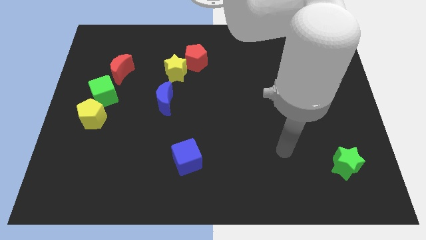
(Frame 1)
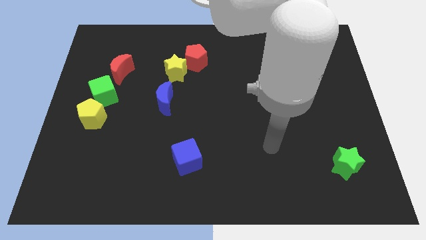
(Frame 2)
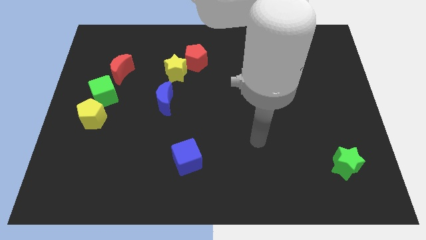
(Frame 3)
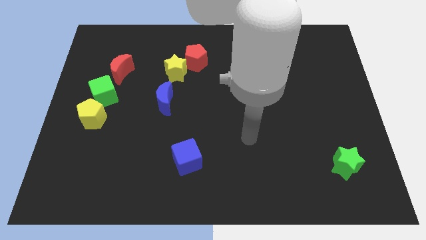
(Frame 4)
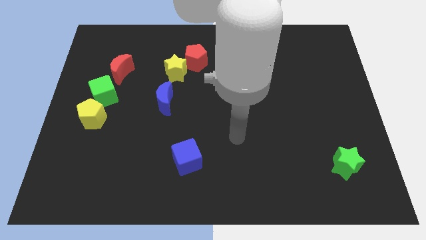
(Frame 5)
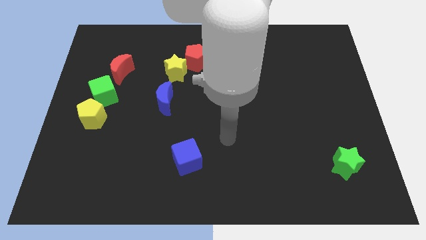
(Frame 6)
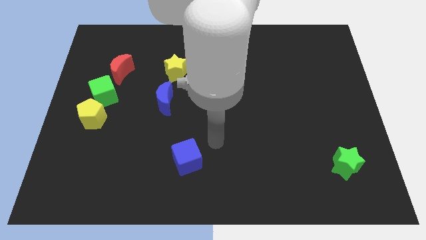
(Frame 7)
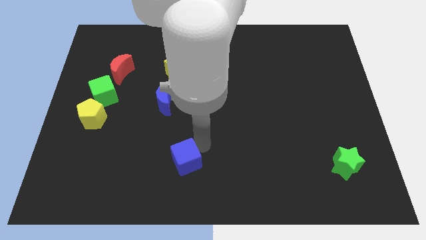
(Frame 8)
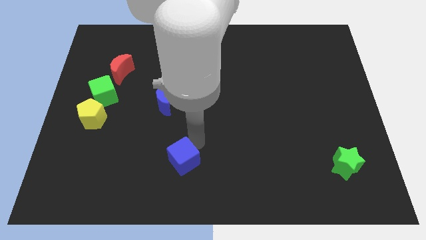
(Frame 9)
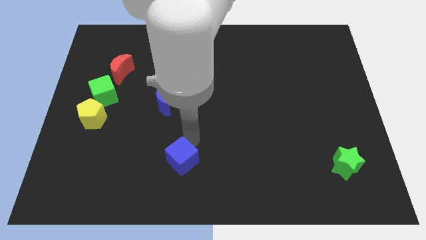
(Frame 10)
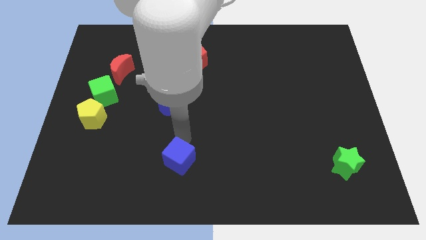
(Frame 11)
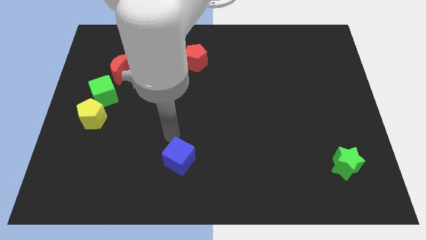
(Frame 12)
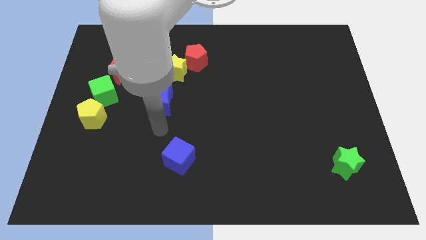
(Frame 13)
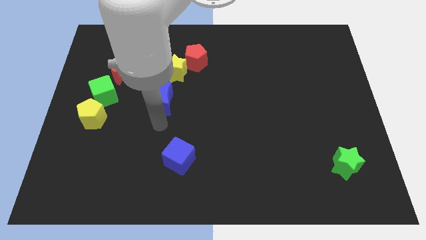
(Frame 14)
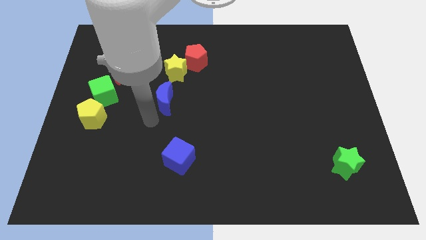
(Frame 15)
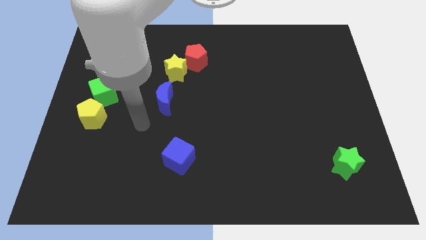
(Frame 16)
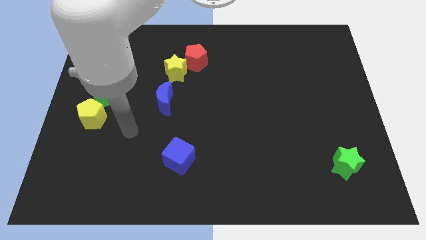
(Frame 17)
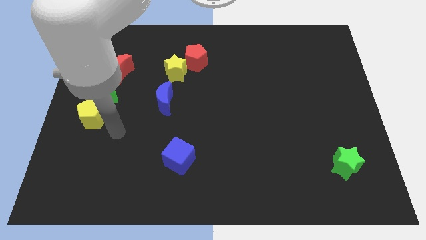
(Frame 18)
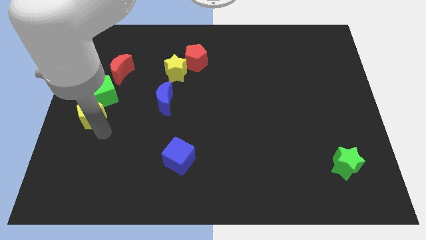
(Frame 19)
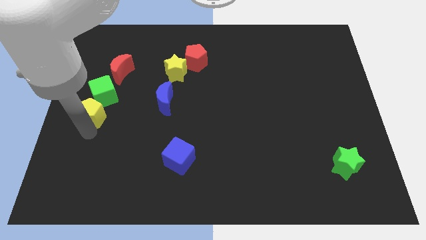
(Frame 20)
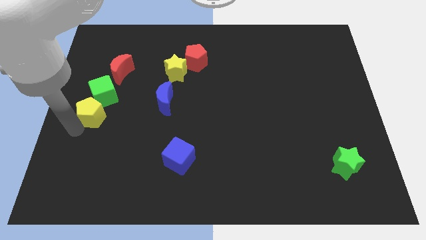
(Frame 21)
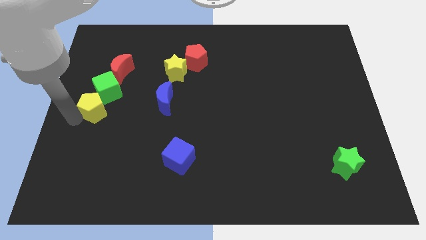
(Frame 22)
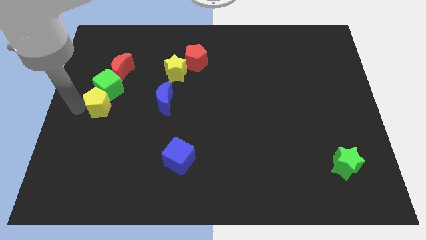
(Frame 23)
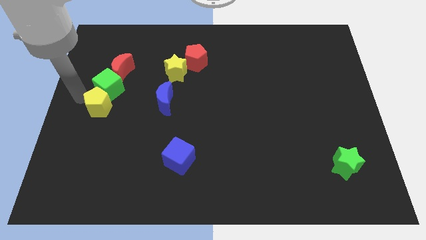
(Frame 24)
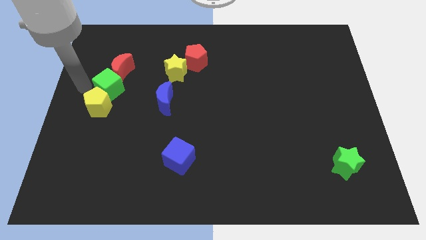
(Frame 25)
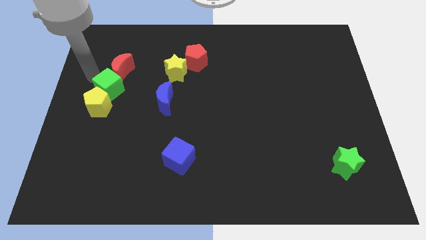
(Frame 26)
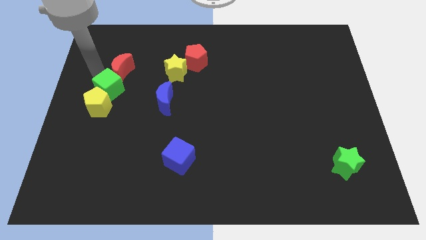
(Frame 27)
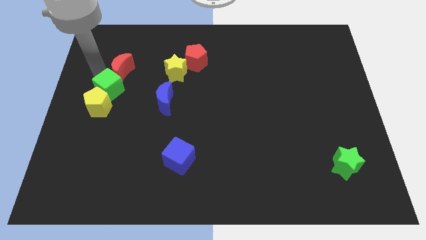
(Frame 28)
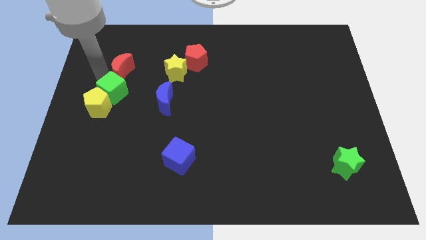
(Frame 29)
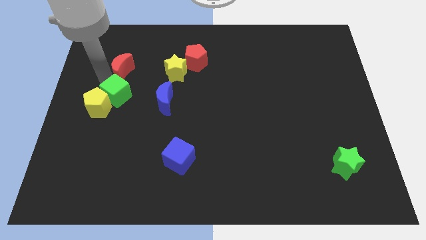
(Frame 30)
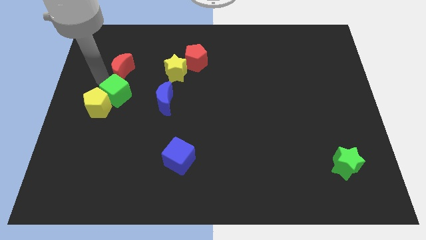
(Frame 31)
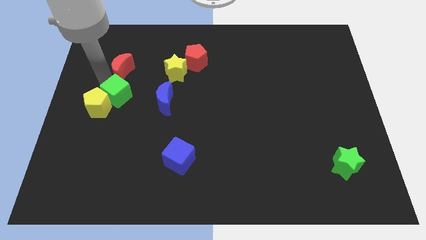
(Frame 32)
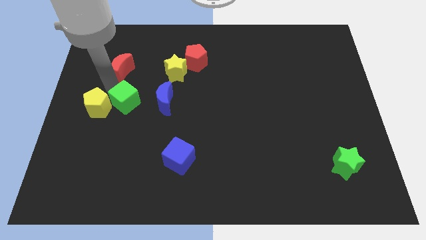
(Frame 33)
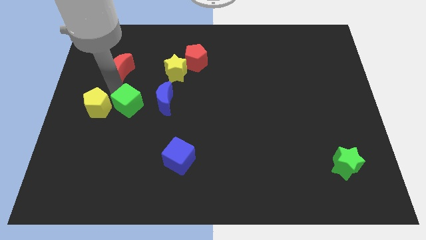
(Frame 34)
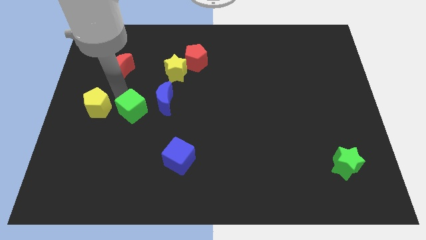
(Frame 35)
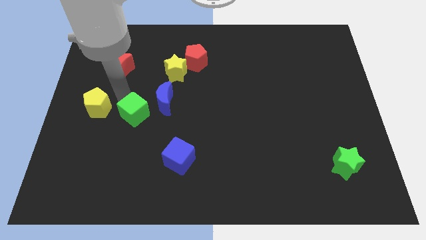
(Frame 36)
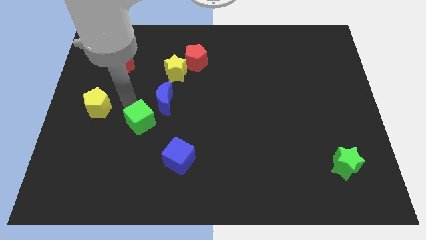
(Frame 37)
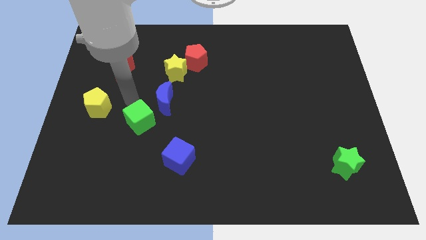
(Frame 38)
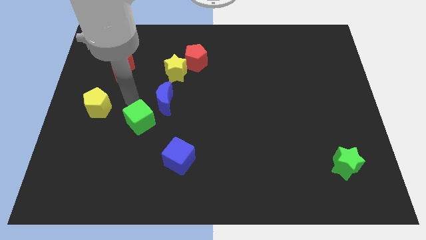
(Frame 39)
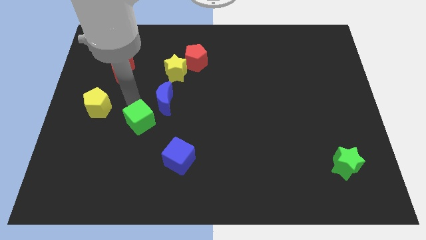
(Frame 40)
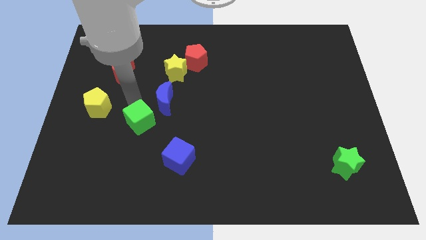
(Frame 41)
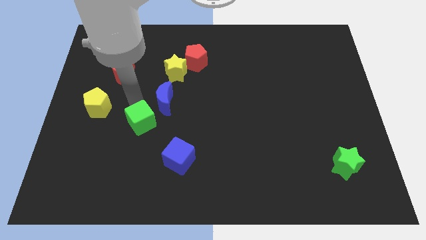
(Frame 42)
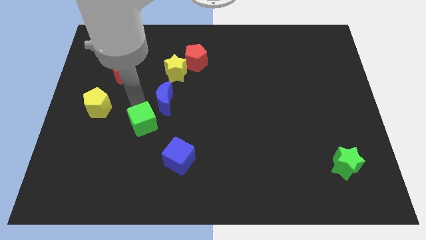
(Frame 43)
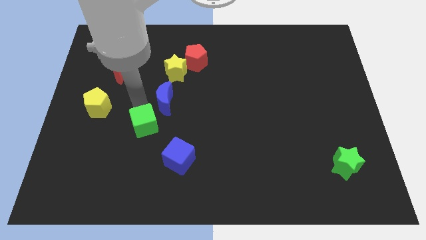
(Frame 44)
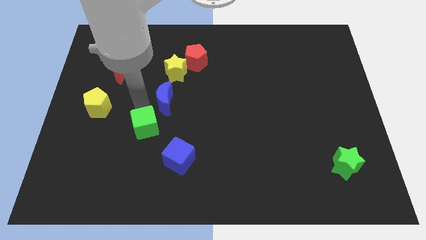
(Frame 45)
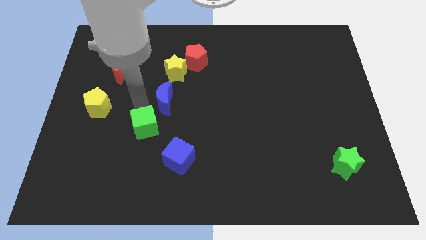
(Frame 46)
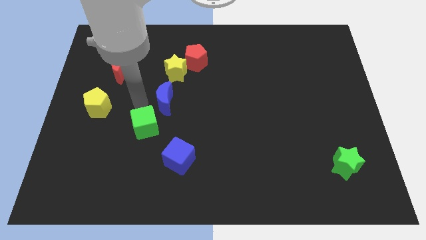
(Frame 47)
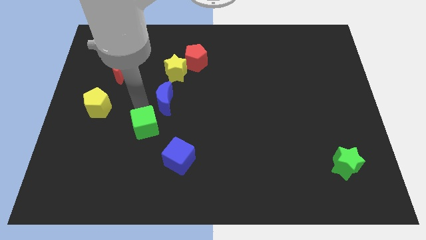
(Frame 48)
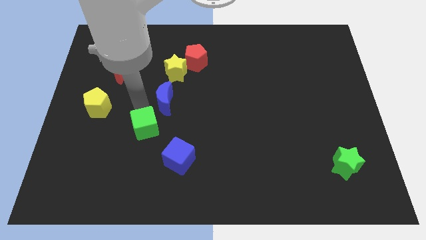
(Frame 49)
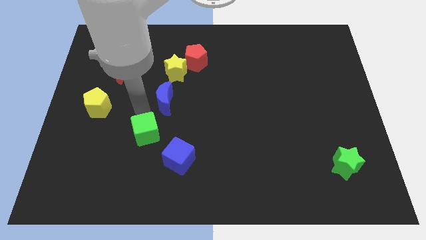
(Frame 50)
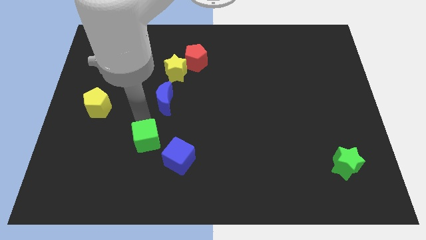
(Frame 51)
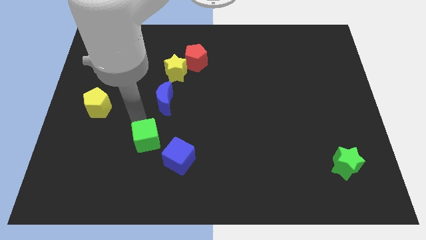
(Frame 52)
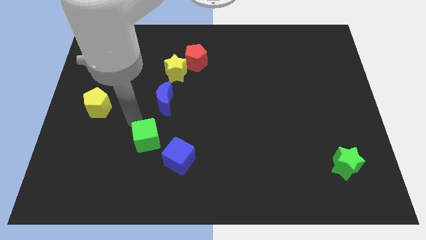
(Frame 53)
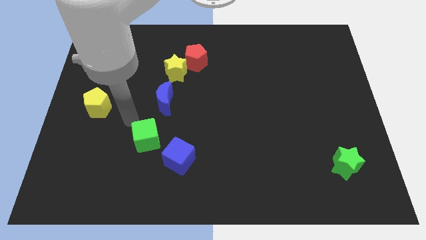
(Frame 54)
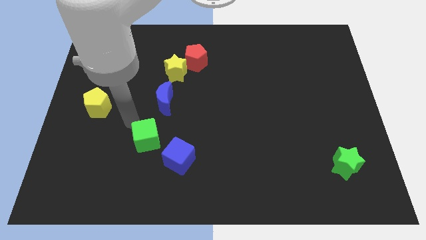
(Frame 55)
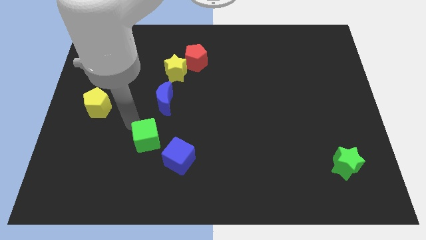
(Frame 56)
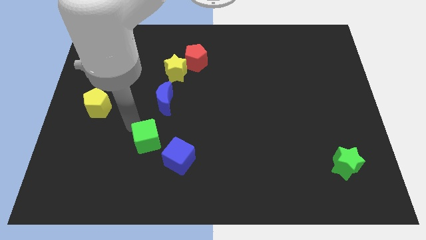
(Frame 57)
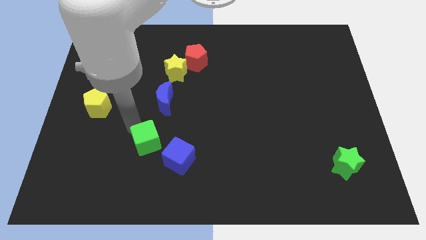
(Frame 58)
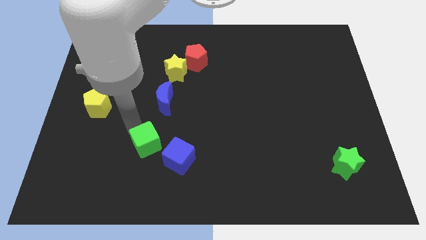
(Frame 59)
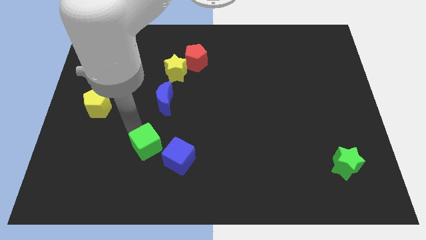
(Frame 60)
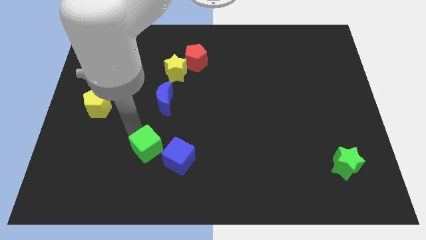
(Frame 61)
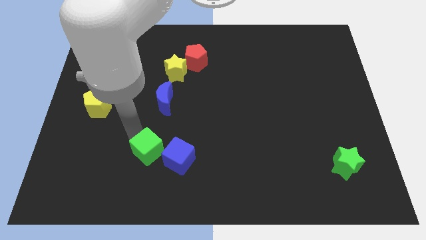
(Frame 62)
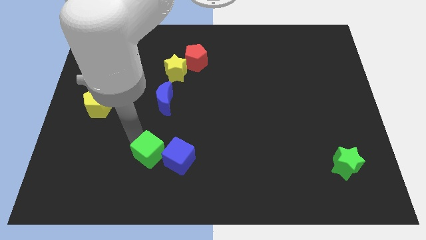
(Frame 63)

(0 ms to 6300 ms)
slide the green cube down and then to the right

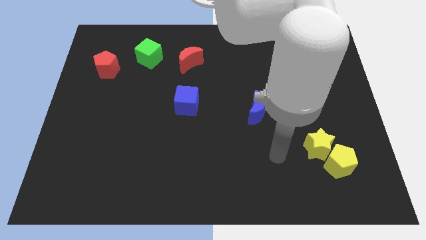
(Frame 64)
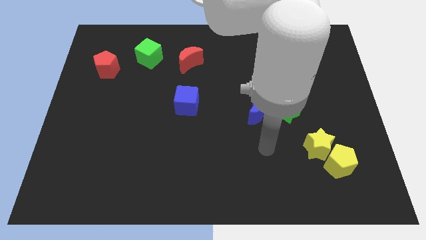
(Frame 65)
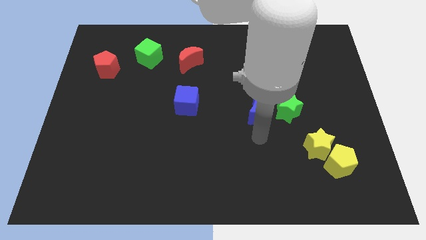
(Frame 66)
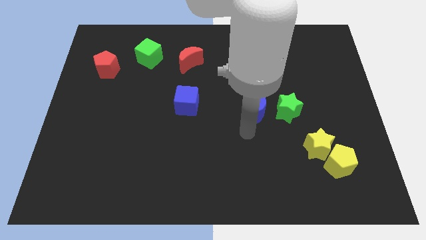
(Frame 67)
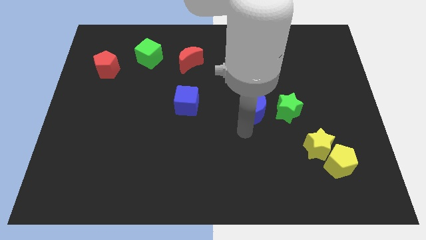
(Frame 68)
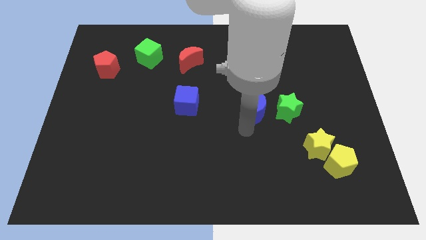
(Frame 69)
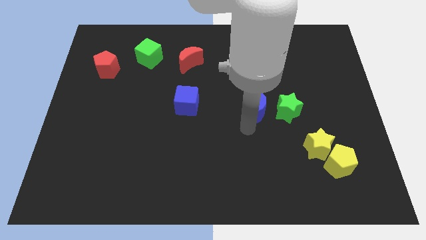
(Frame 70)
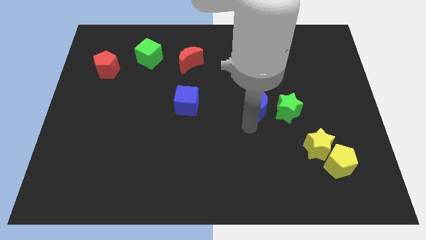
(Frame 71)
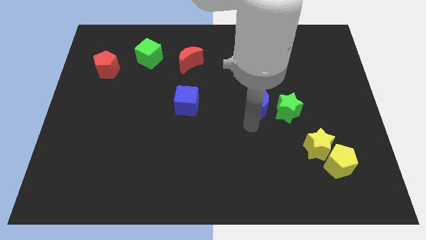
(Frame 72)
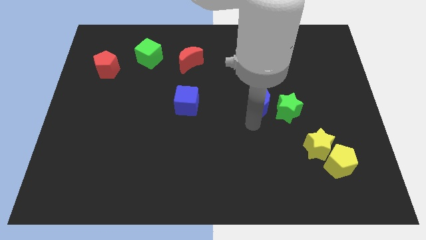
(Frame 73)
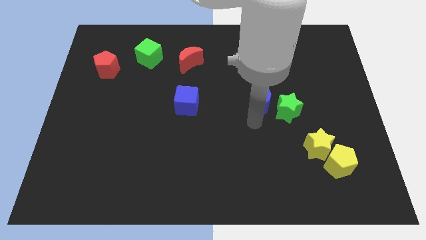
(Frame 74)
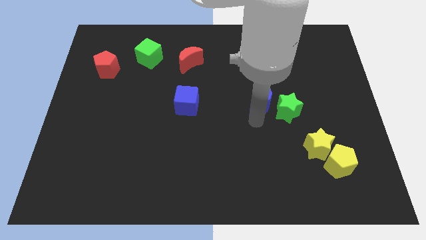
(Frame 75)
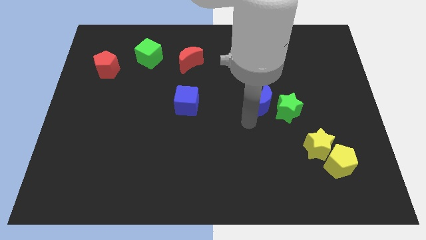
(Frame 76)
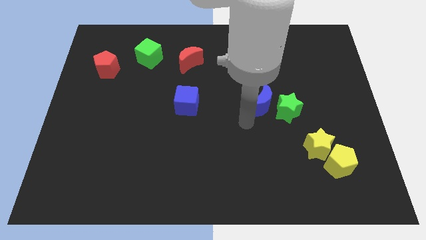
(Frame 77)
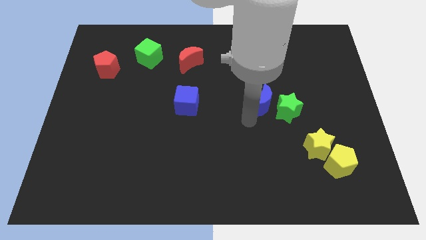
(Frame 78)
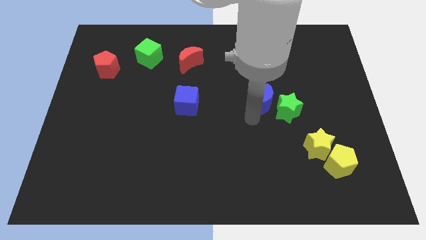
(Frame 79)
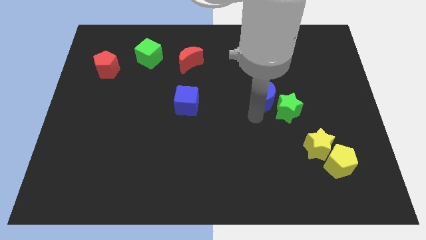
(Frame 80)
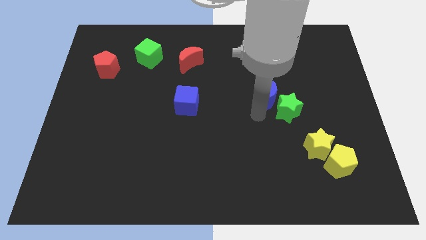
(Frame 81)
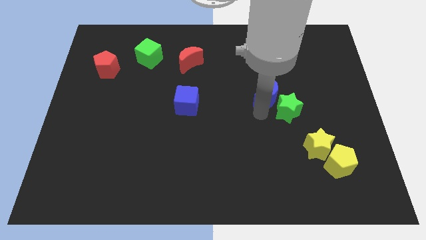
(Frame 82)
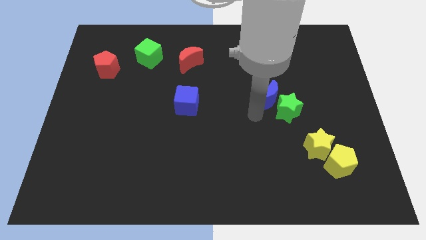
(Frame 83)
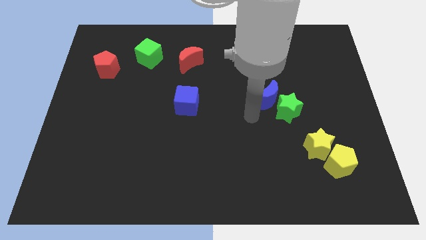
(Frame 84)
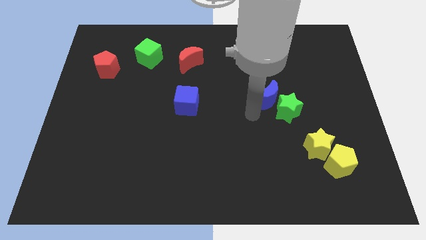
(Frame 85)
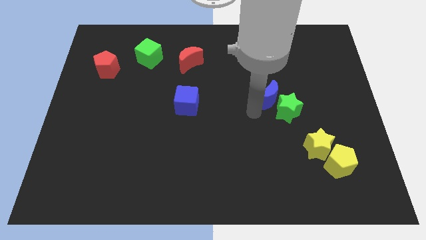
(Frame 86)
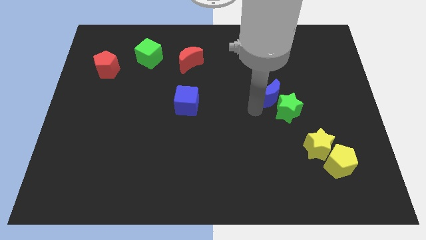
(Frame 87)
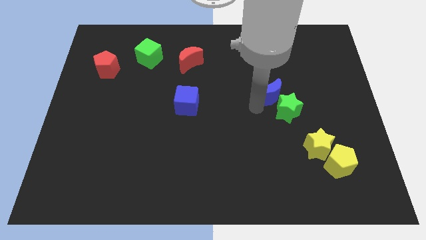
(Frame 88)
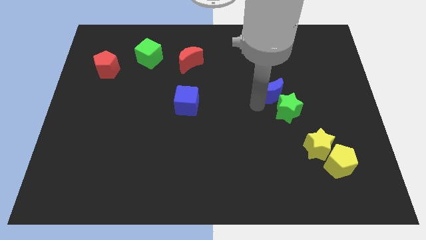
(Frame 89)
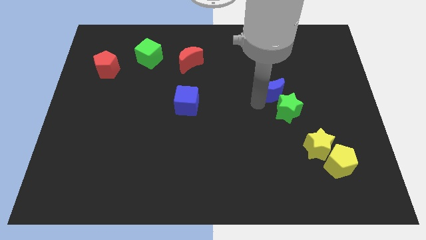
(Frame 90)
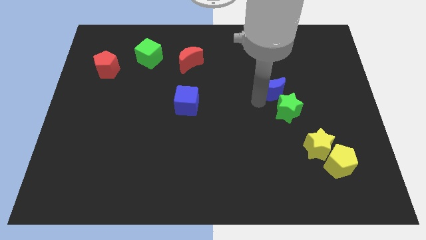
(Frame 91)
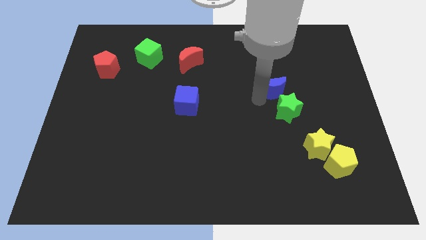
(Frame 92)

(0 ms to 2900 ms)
slide the blue moon diagonally up and right a bit
